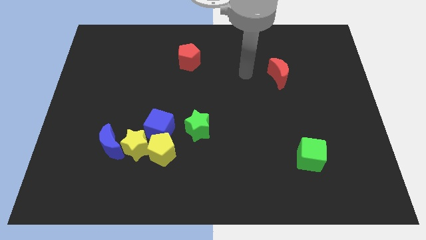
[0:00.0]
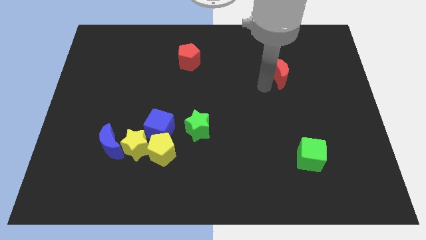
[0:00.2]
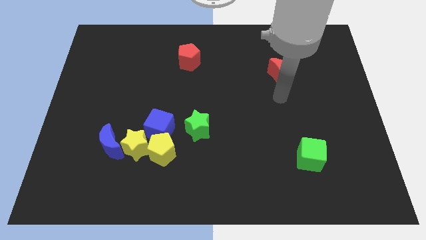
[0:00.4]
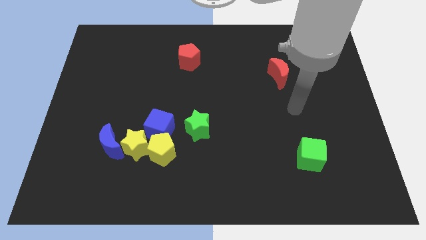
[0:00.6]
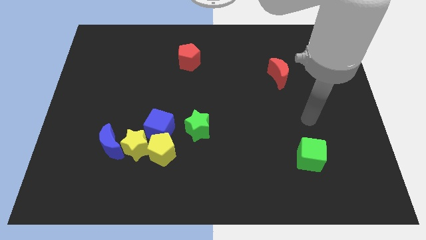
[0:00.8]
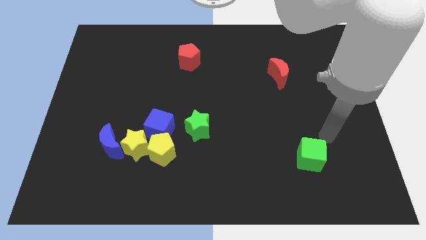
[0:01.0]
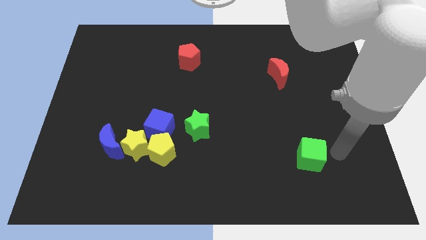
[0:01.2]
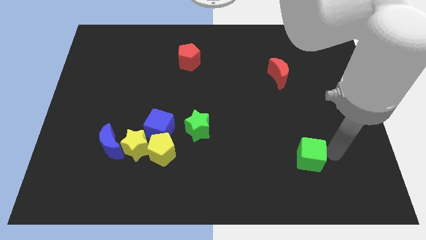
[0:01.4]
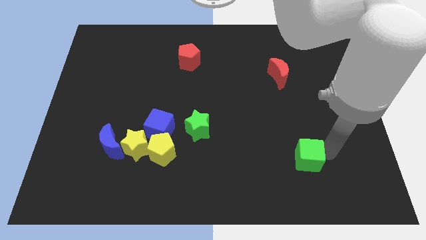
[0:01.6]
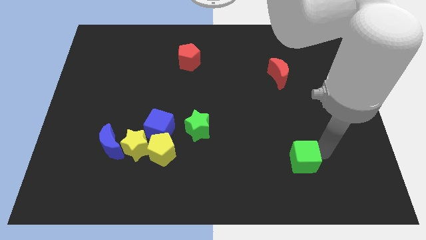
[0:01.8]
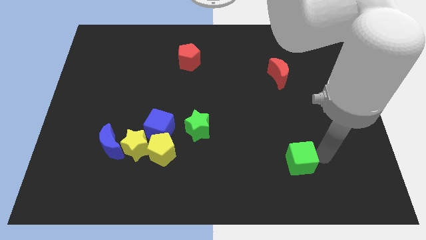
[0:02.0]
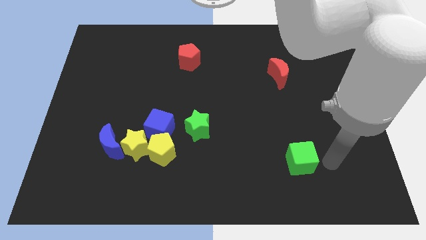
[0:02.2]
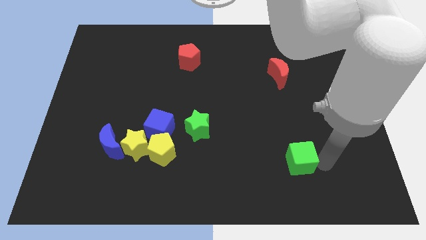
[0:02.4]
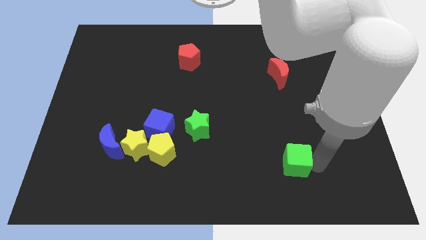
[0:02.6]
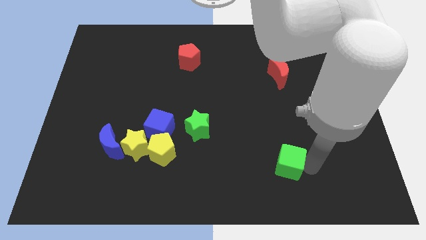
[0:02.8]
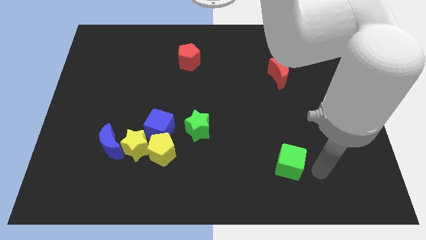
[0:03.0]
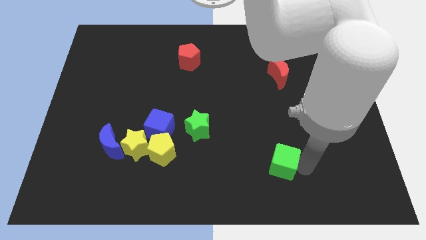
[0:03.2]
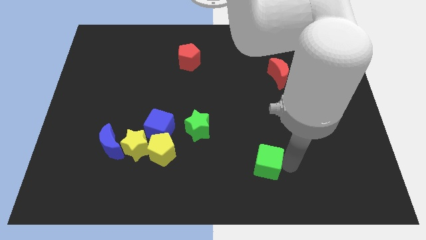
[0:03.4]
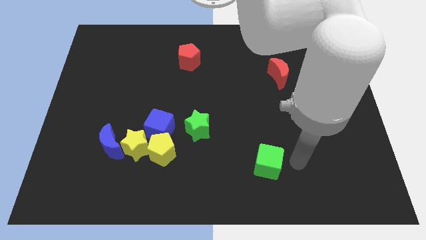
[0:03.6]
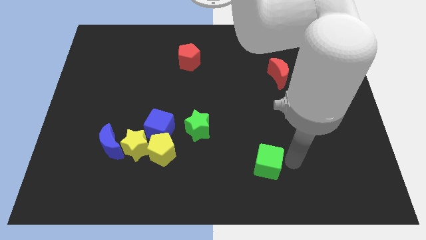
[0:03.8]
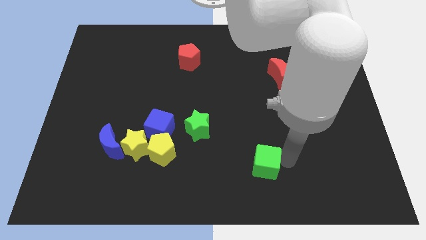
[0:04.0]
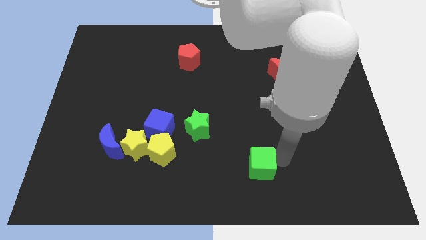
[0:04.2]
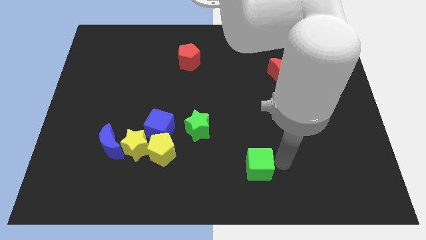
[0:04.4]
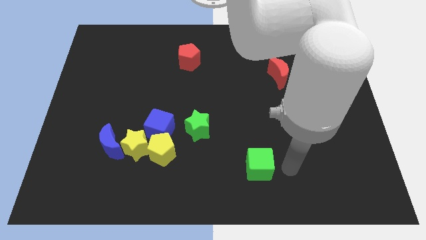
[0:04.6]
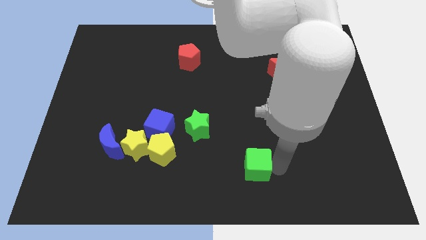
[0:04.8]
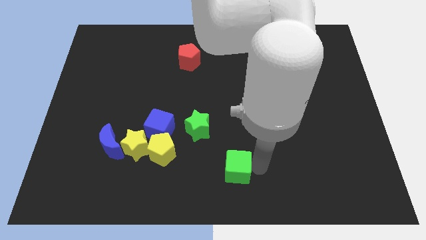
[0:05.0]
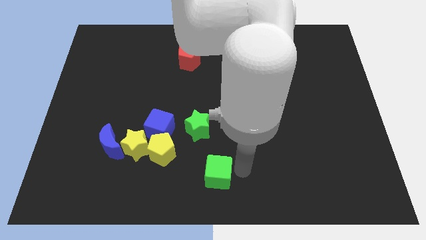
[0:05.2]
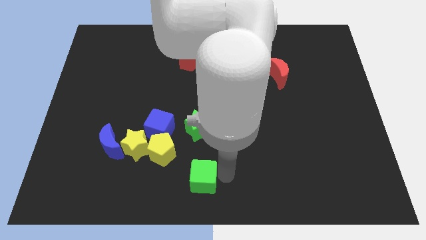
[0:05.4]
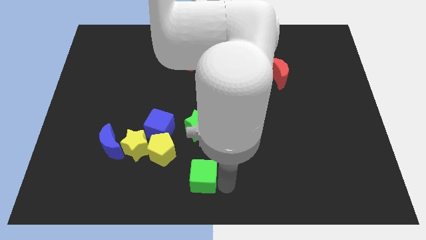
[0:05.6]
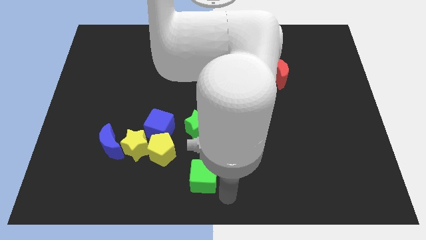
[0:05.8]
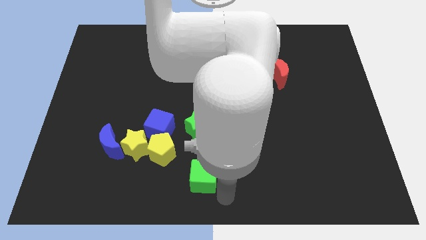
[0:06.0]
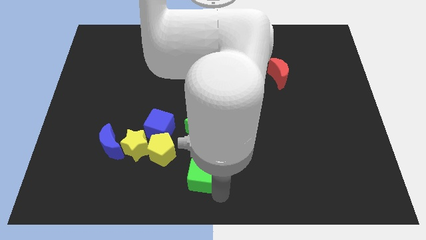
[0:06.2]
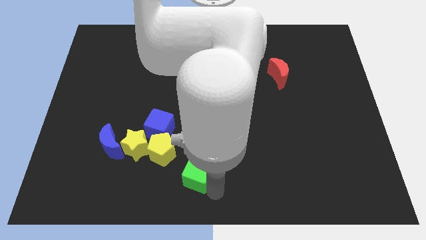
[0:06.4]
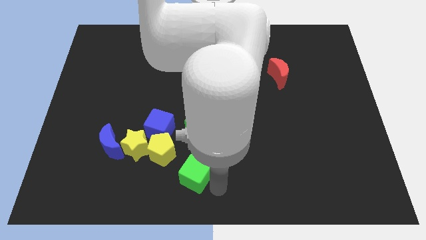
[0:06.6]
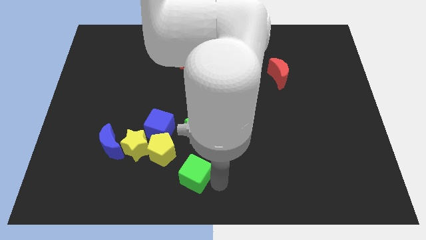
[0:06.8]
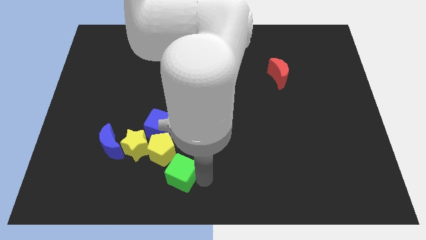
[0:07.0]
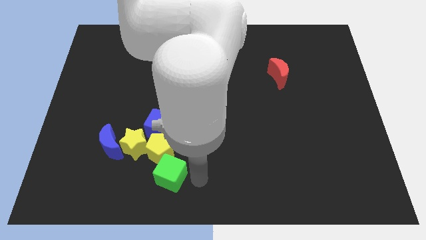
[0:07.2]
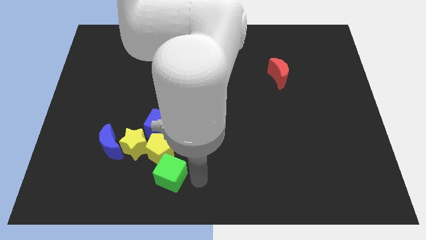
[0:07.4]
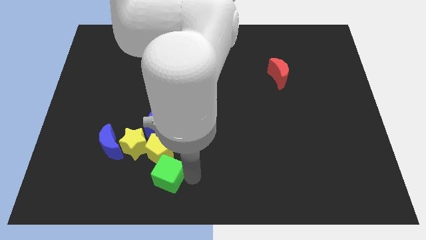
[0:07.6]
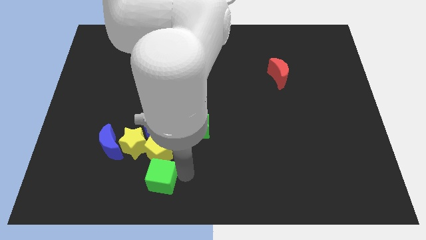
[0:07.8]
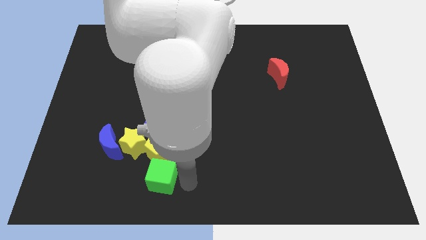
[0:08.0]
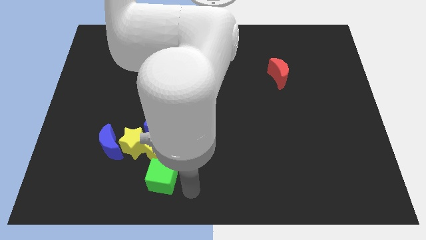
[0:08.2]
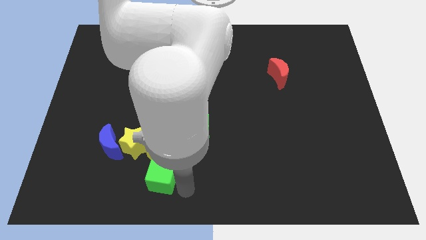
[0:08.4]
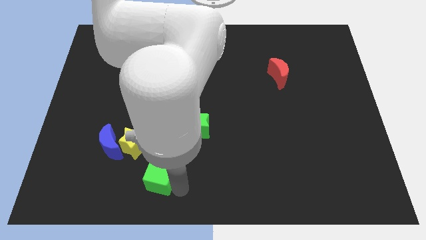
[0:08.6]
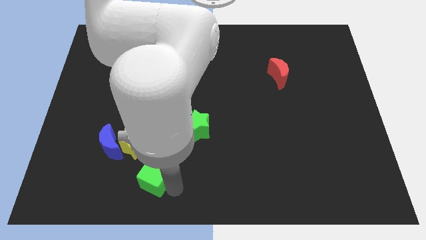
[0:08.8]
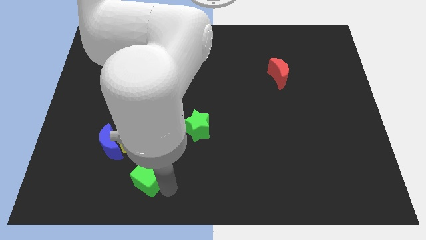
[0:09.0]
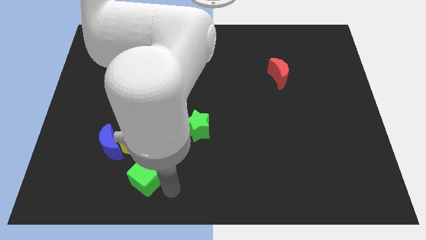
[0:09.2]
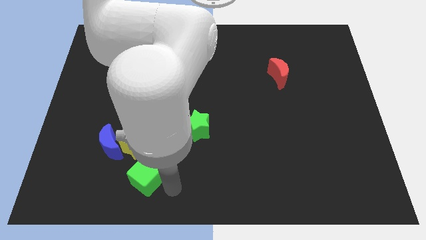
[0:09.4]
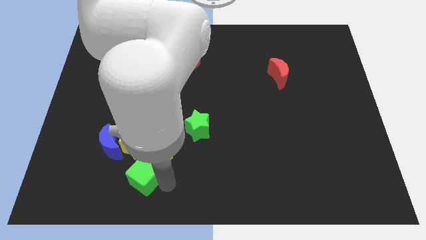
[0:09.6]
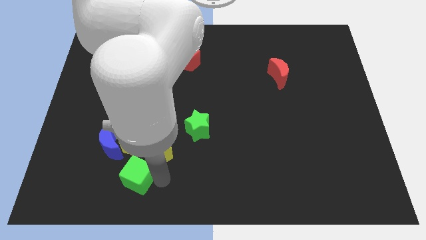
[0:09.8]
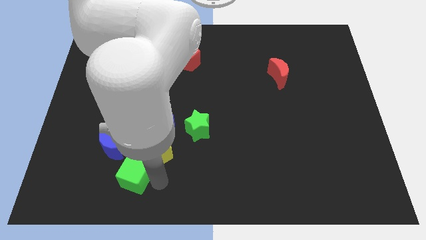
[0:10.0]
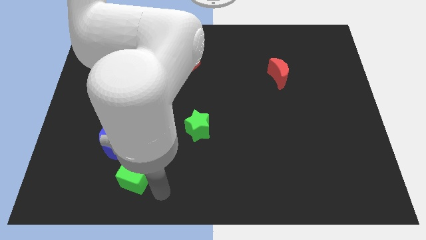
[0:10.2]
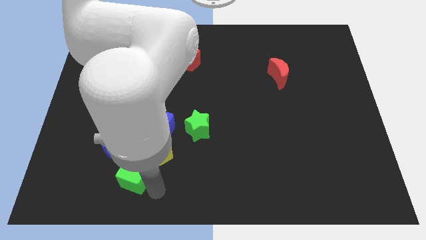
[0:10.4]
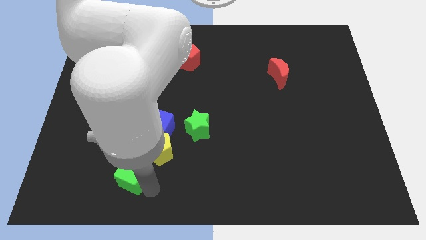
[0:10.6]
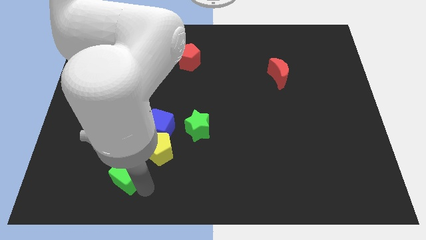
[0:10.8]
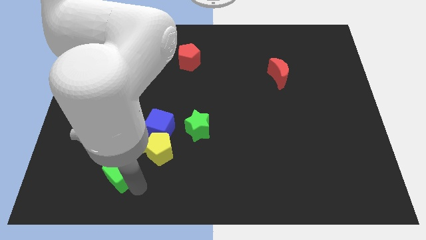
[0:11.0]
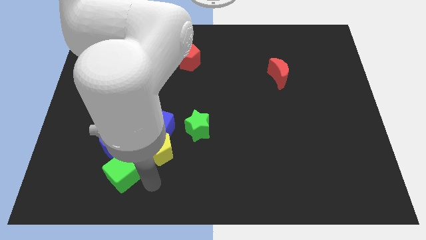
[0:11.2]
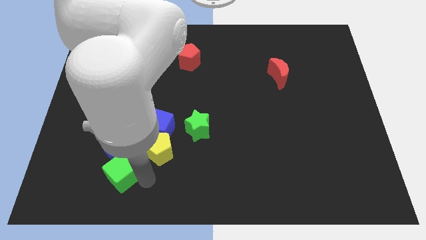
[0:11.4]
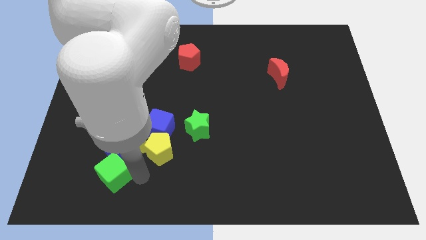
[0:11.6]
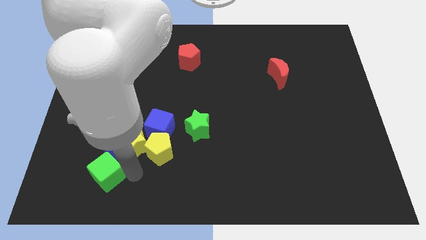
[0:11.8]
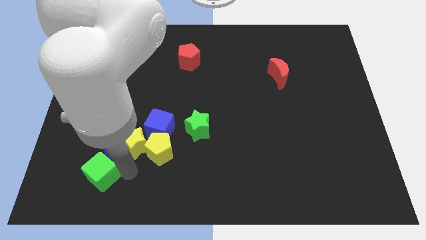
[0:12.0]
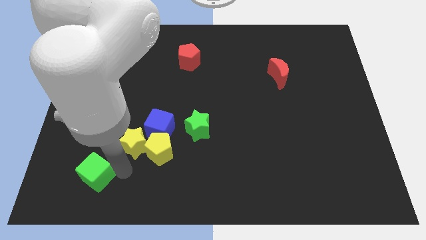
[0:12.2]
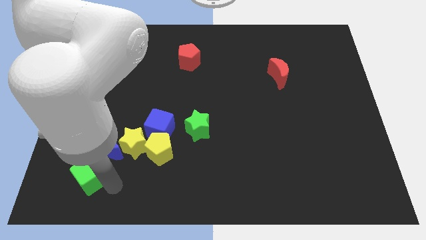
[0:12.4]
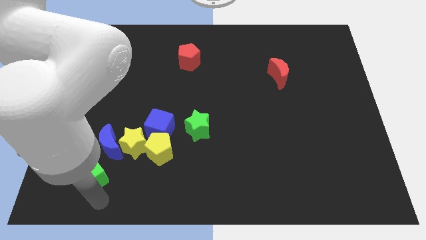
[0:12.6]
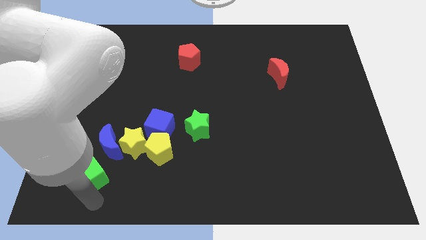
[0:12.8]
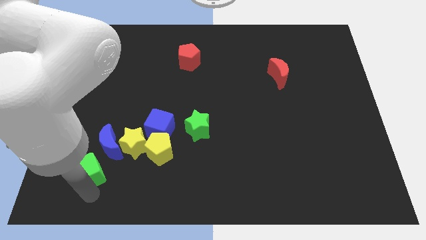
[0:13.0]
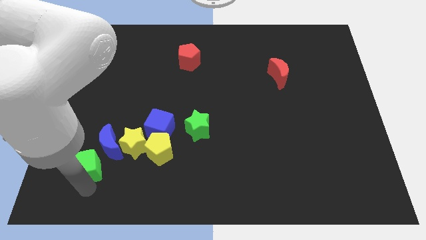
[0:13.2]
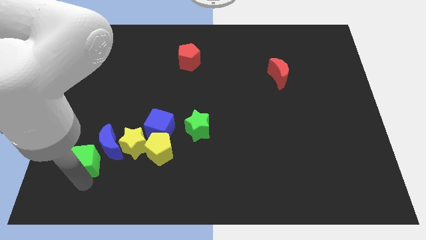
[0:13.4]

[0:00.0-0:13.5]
move the green cube to the left of the yellow star
